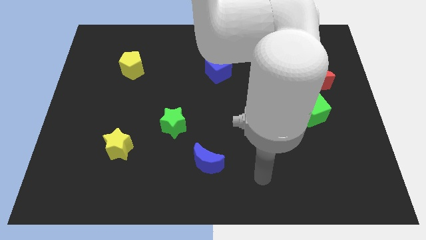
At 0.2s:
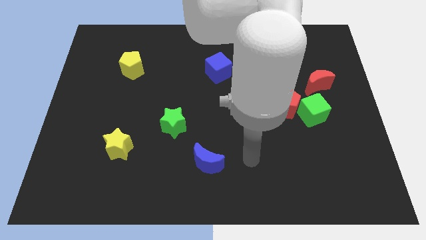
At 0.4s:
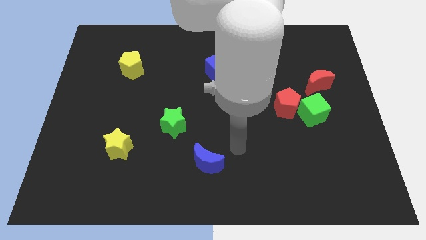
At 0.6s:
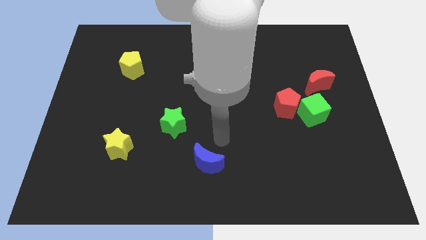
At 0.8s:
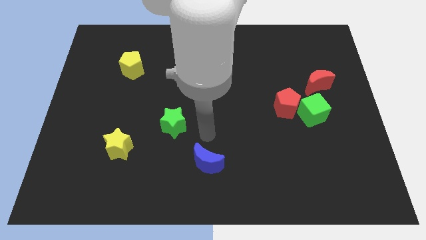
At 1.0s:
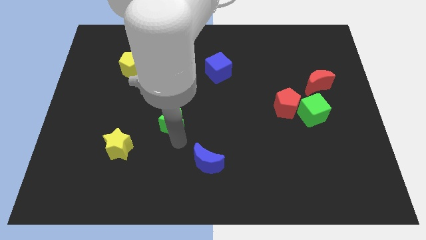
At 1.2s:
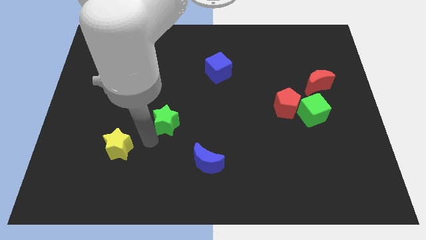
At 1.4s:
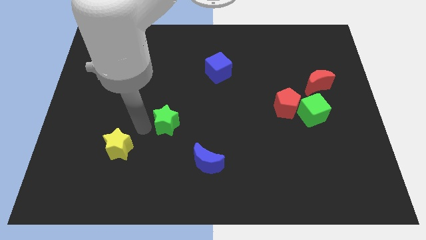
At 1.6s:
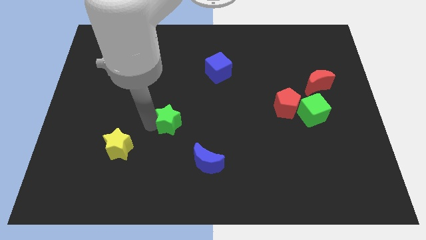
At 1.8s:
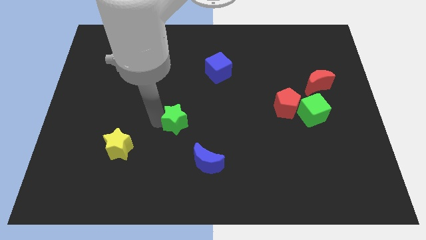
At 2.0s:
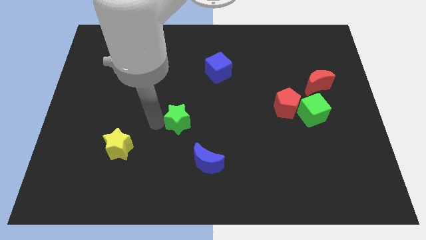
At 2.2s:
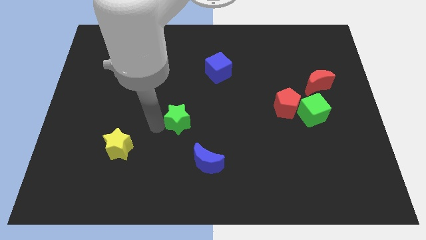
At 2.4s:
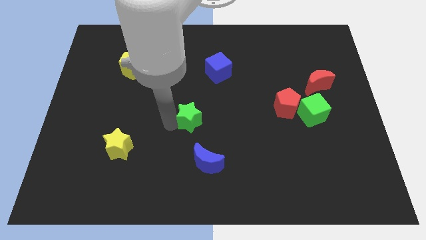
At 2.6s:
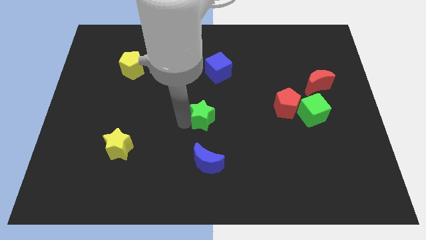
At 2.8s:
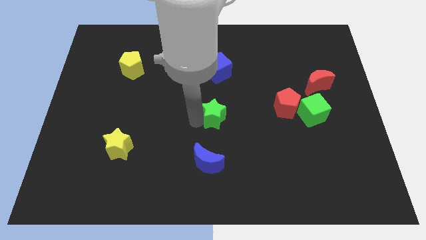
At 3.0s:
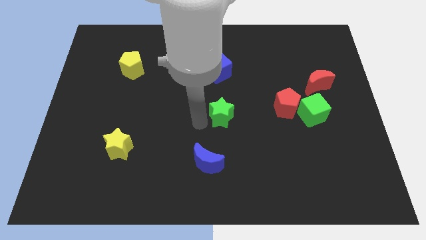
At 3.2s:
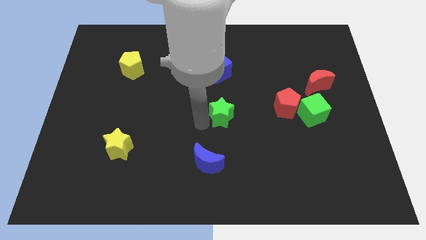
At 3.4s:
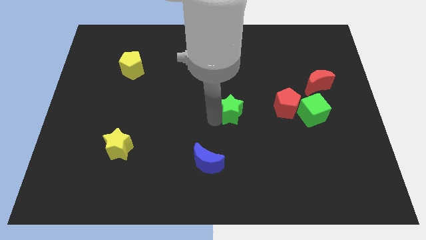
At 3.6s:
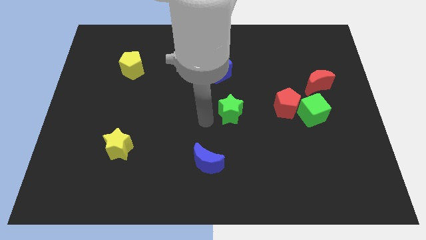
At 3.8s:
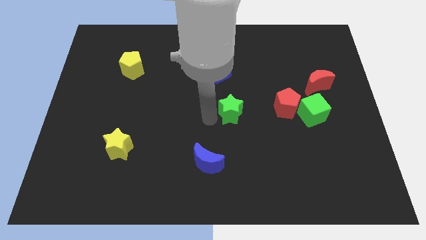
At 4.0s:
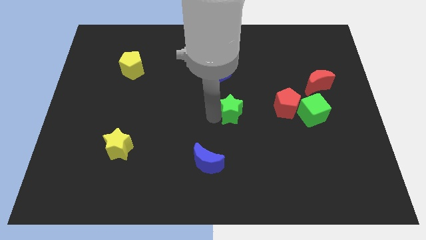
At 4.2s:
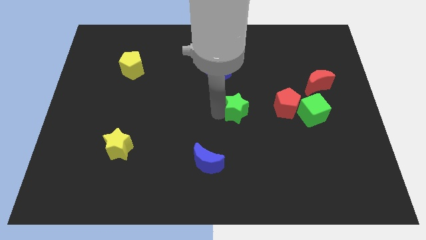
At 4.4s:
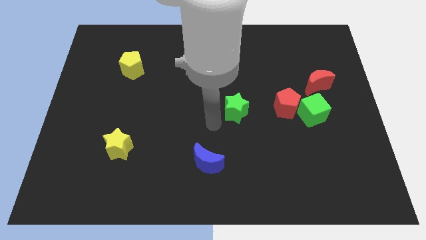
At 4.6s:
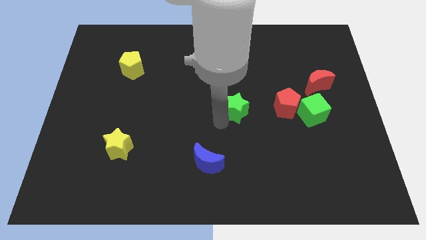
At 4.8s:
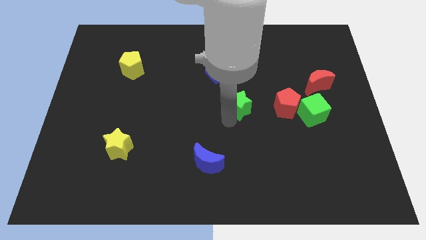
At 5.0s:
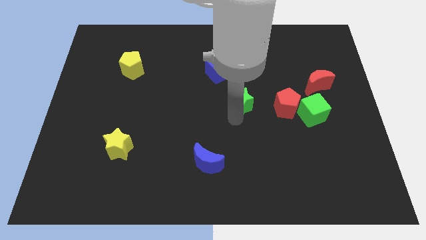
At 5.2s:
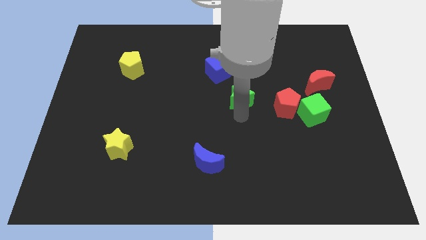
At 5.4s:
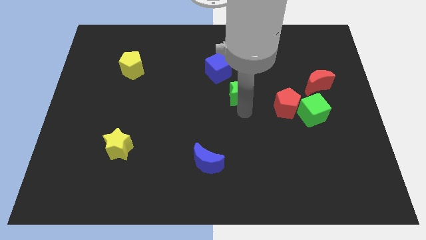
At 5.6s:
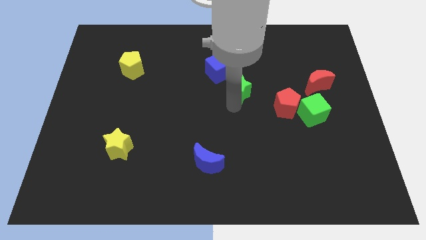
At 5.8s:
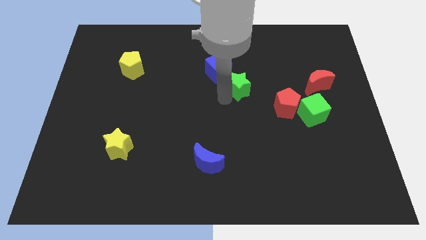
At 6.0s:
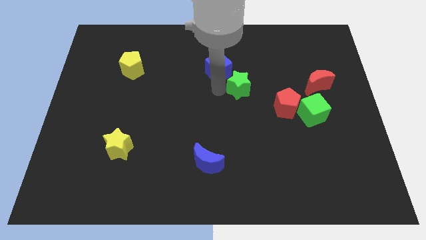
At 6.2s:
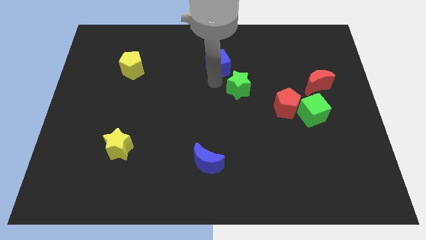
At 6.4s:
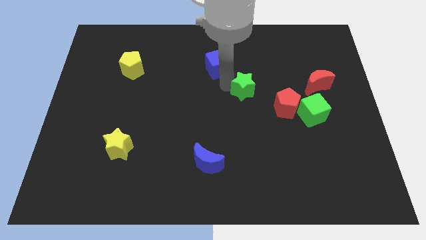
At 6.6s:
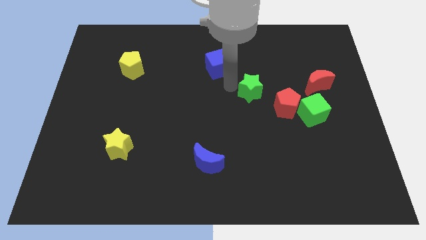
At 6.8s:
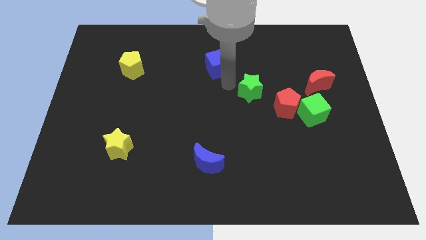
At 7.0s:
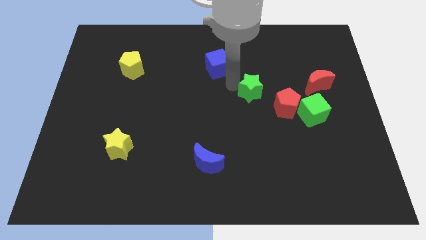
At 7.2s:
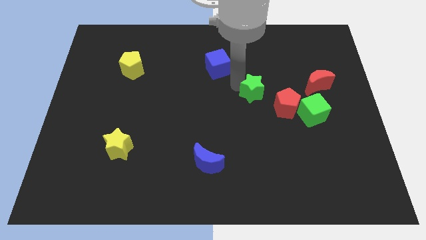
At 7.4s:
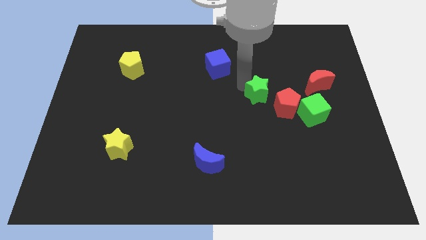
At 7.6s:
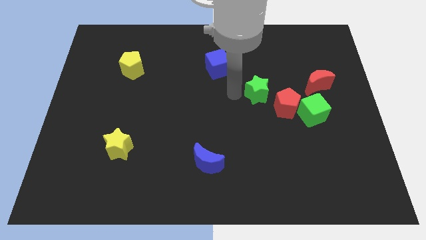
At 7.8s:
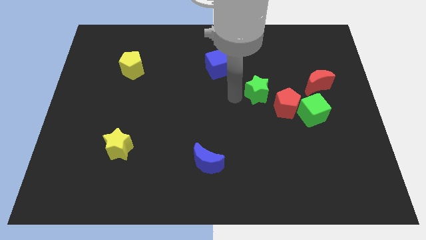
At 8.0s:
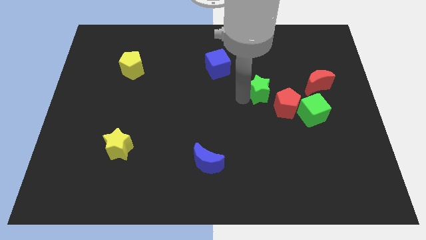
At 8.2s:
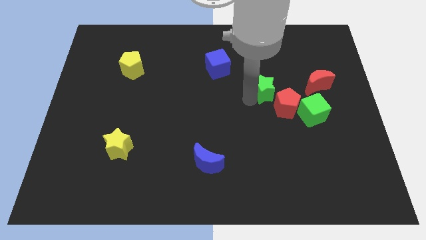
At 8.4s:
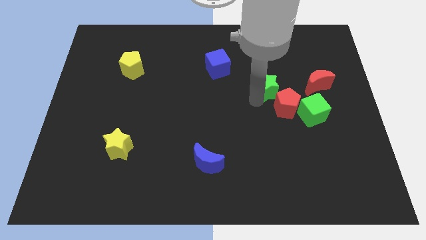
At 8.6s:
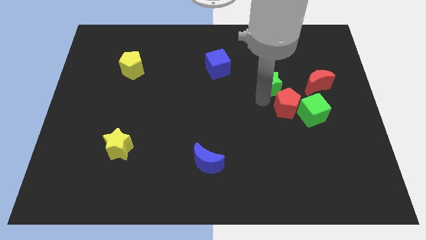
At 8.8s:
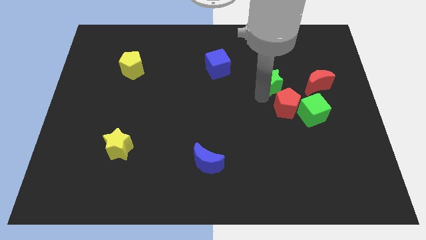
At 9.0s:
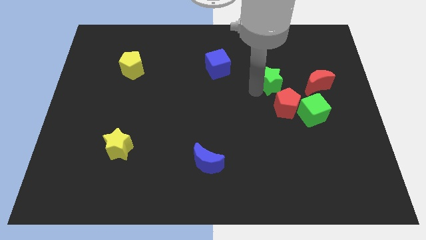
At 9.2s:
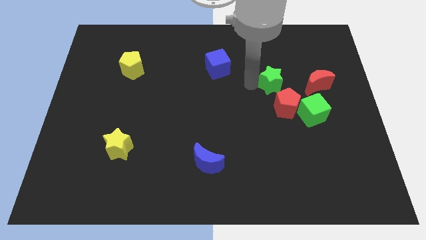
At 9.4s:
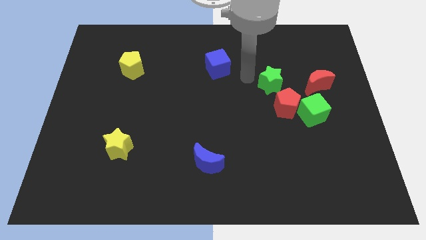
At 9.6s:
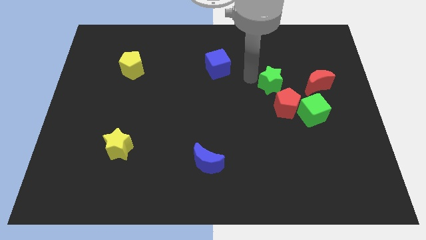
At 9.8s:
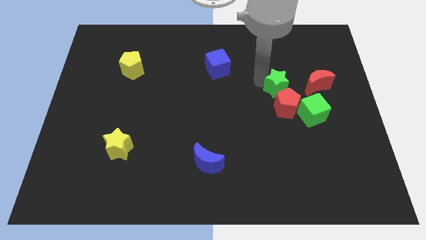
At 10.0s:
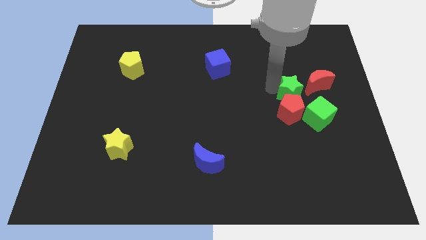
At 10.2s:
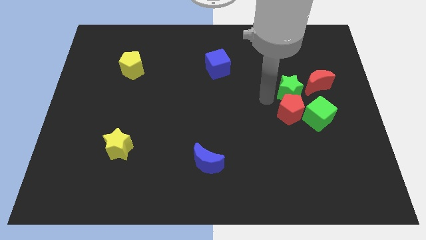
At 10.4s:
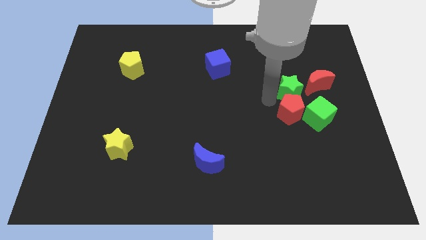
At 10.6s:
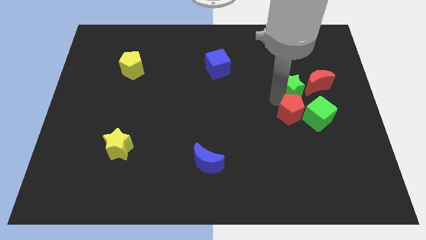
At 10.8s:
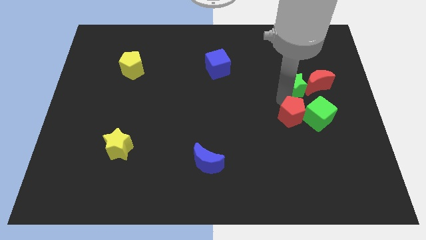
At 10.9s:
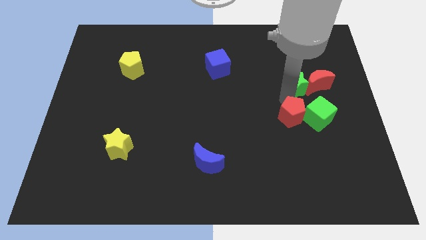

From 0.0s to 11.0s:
put the green star next to the red moon
